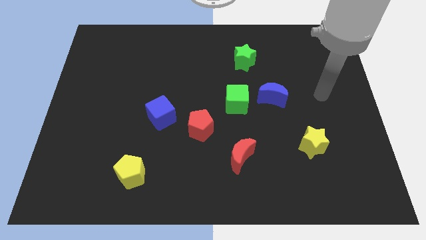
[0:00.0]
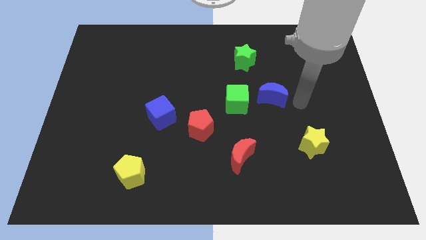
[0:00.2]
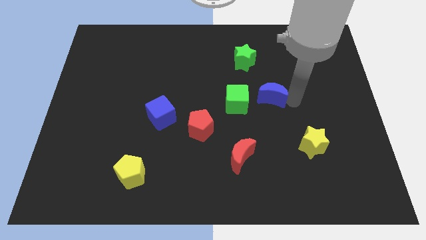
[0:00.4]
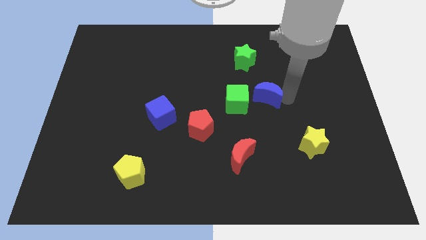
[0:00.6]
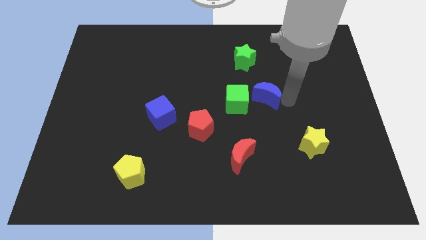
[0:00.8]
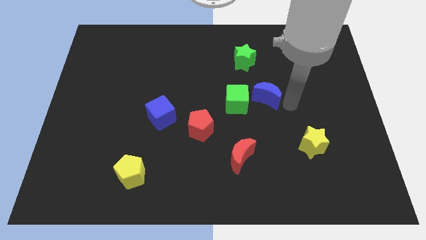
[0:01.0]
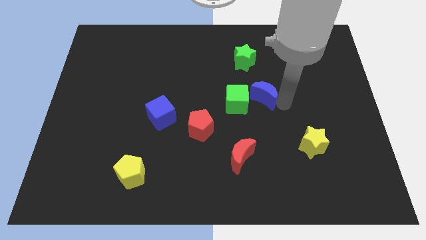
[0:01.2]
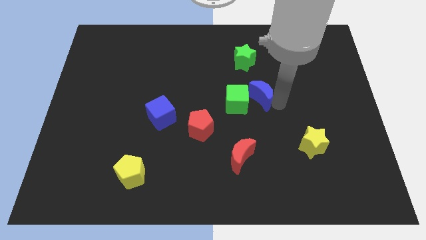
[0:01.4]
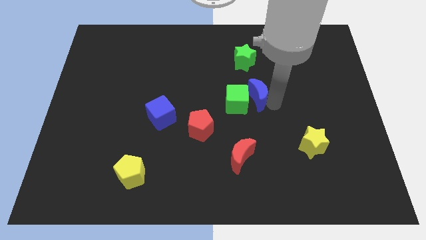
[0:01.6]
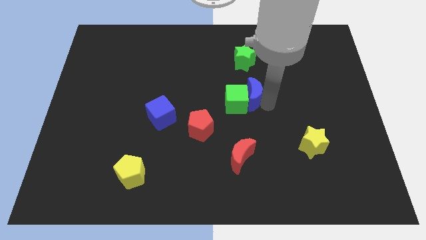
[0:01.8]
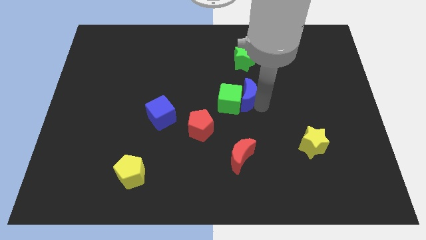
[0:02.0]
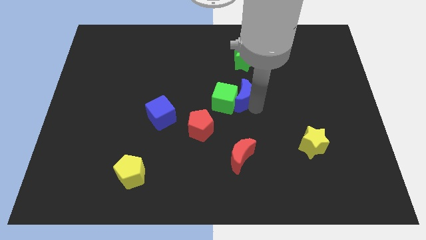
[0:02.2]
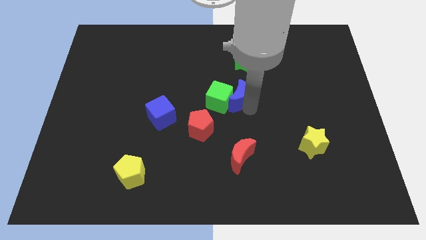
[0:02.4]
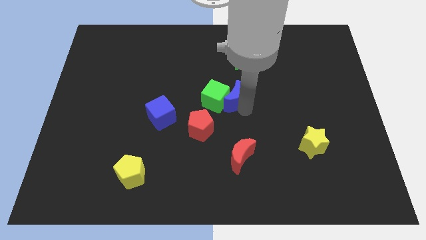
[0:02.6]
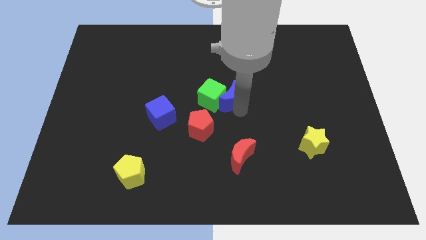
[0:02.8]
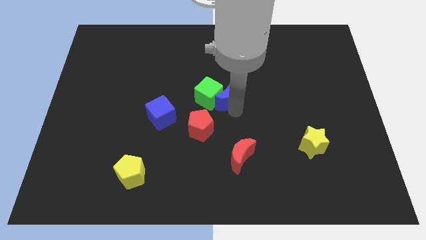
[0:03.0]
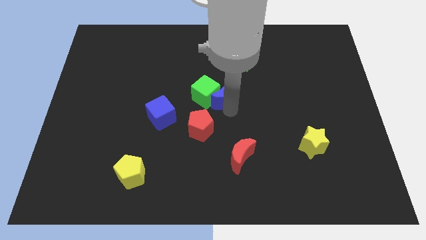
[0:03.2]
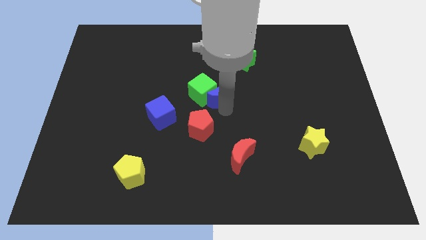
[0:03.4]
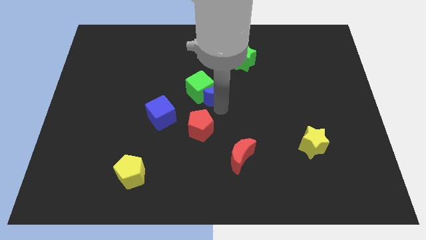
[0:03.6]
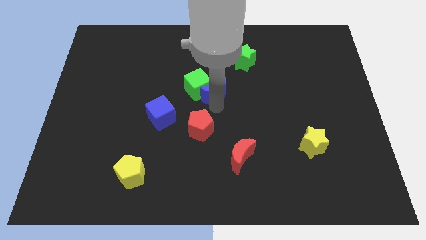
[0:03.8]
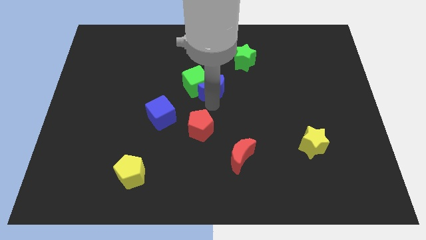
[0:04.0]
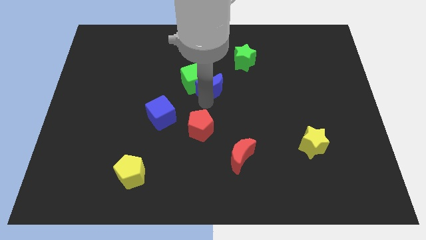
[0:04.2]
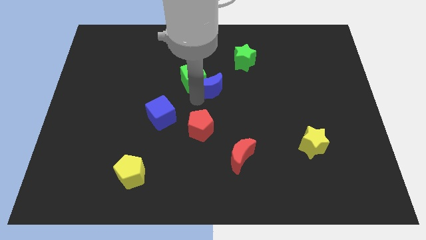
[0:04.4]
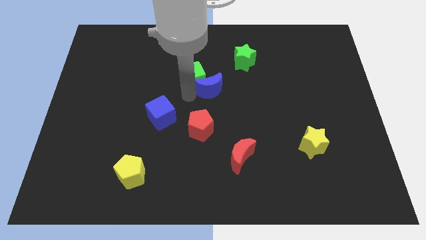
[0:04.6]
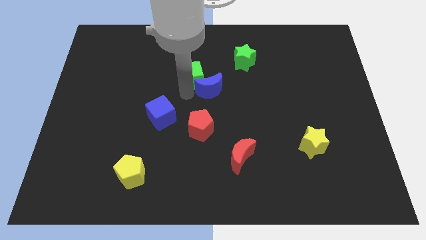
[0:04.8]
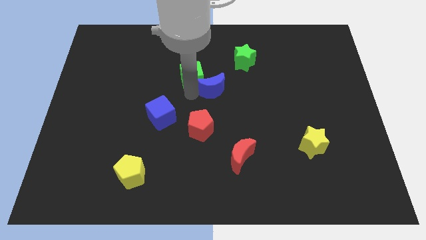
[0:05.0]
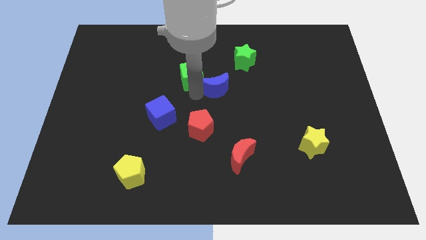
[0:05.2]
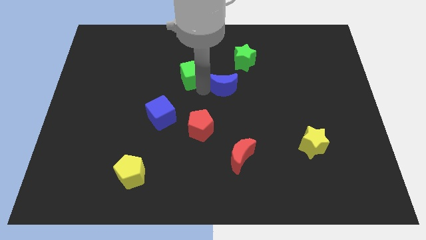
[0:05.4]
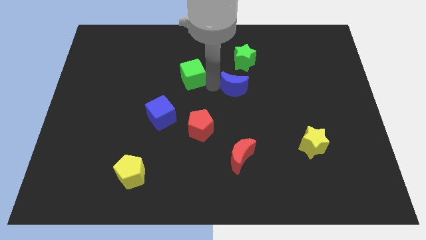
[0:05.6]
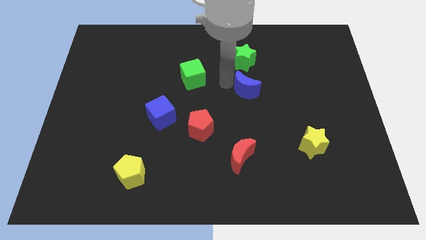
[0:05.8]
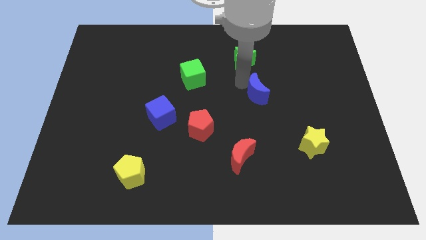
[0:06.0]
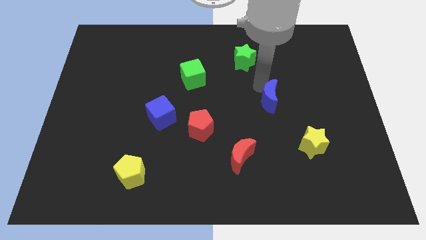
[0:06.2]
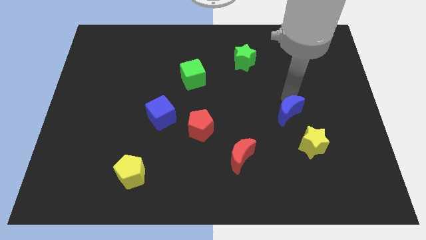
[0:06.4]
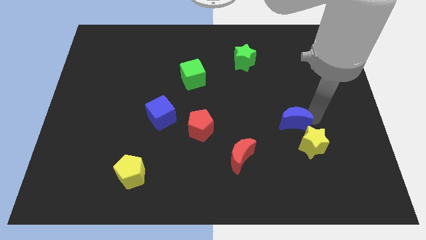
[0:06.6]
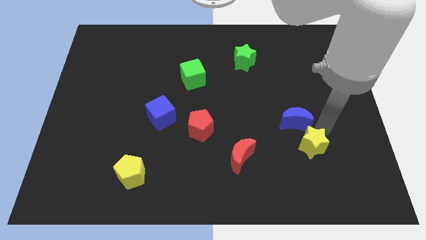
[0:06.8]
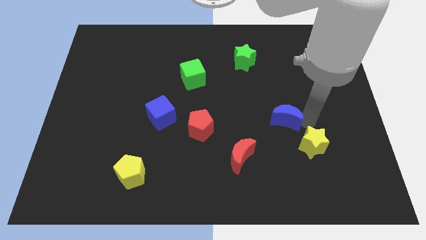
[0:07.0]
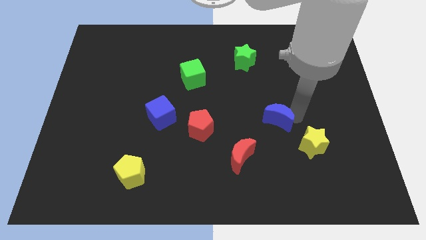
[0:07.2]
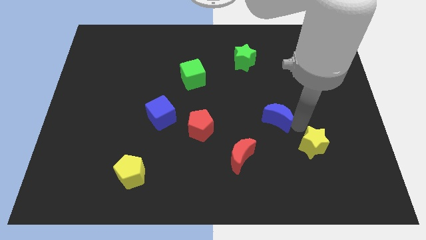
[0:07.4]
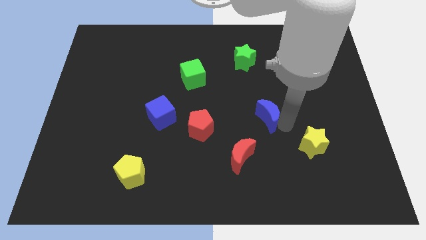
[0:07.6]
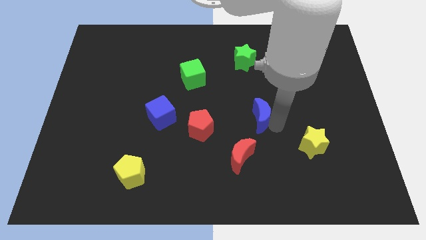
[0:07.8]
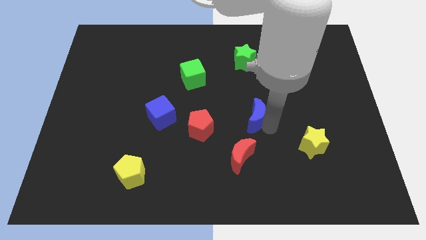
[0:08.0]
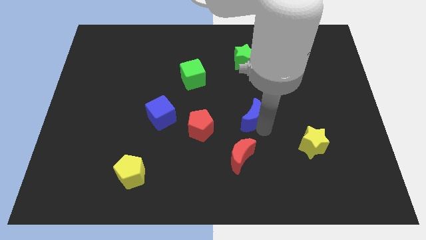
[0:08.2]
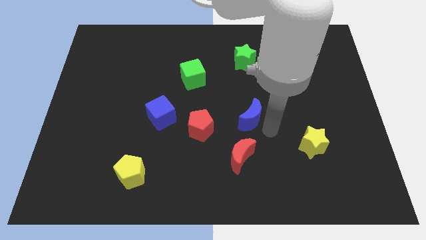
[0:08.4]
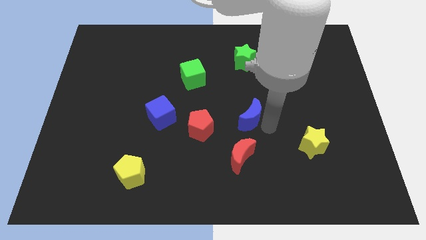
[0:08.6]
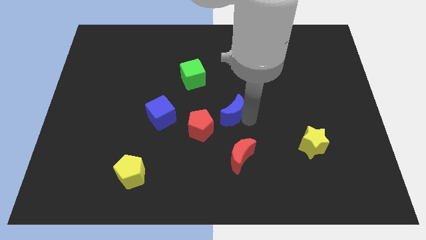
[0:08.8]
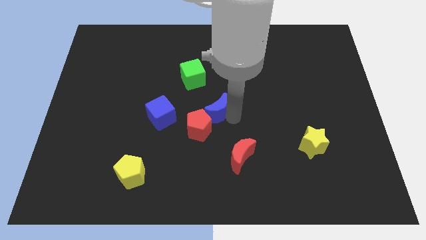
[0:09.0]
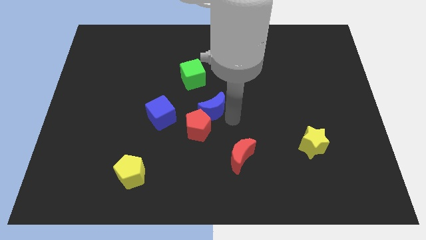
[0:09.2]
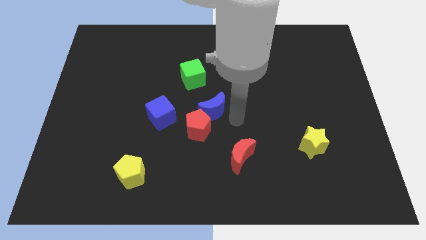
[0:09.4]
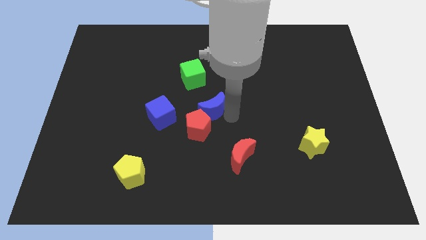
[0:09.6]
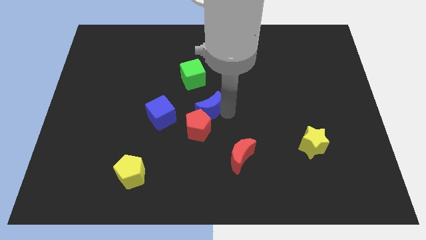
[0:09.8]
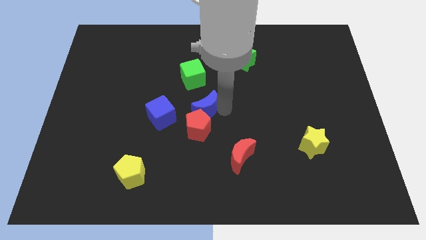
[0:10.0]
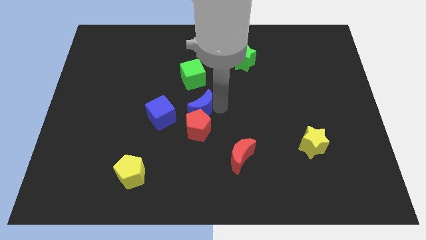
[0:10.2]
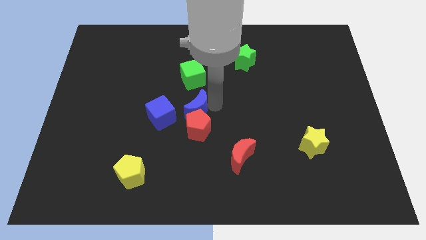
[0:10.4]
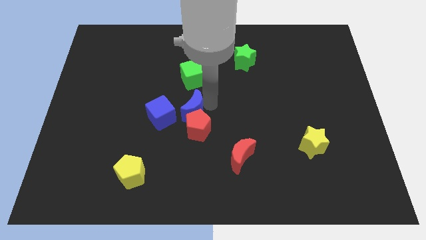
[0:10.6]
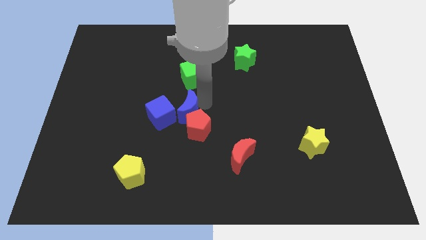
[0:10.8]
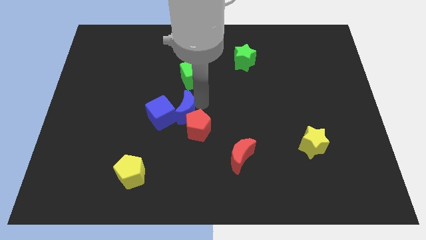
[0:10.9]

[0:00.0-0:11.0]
move the blue moon next to the blue cube

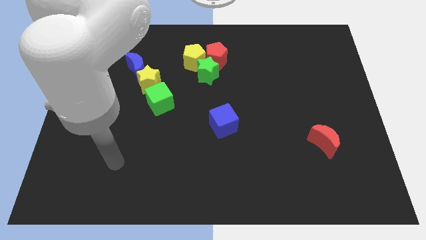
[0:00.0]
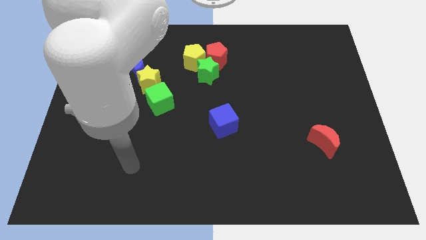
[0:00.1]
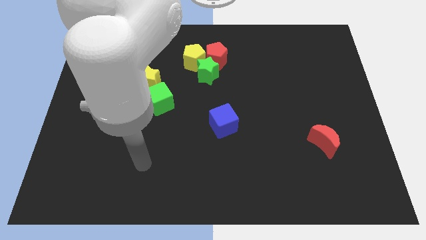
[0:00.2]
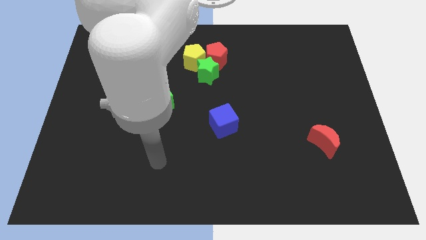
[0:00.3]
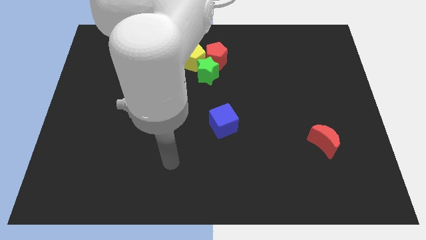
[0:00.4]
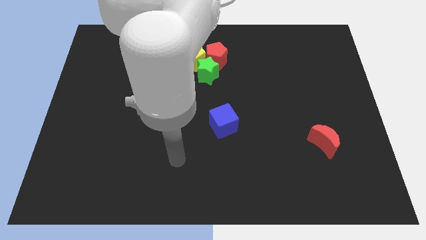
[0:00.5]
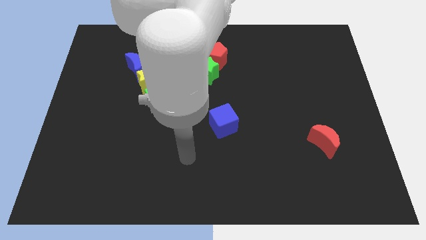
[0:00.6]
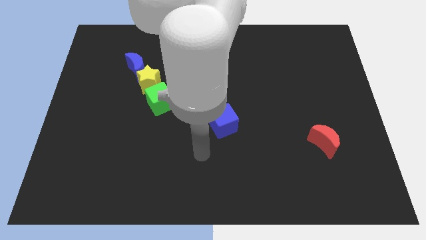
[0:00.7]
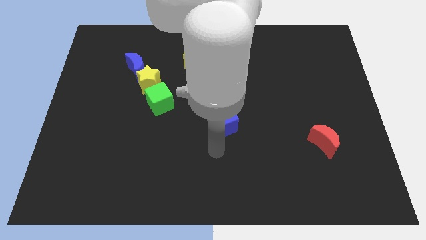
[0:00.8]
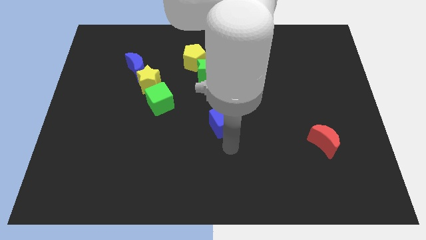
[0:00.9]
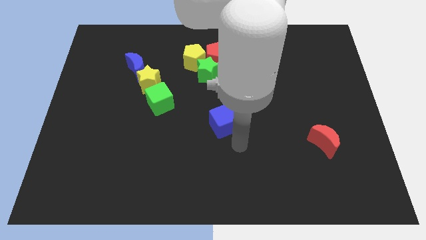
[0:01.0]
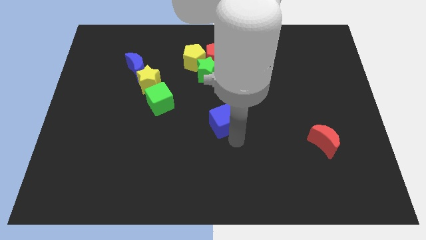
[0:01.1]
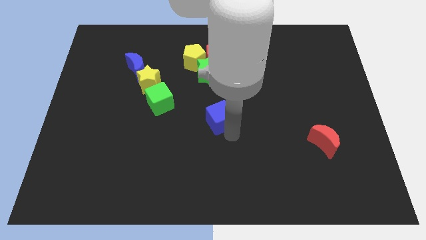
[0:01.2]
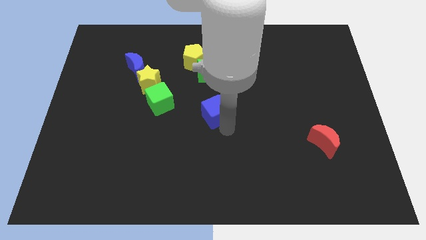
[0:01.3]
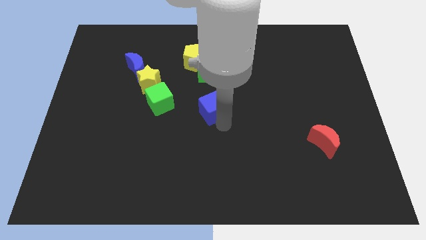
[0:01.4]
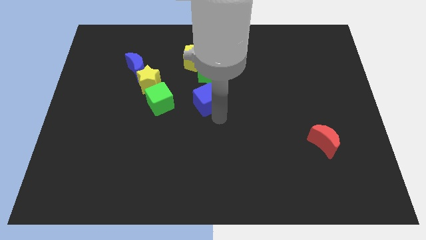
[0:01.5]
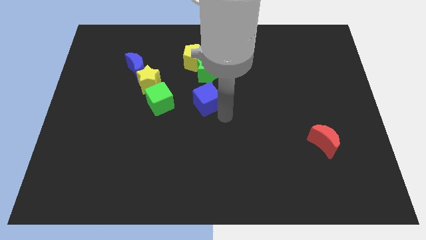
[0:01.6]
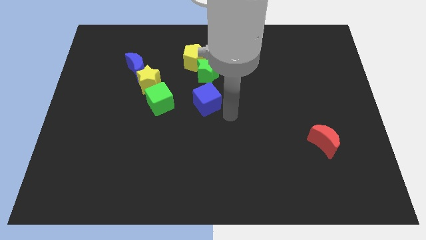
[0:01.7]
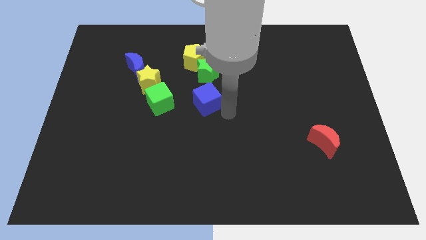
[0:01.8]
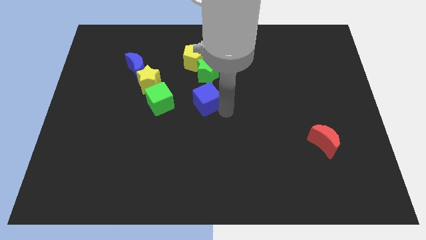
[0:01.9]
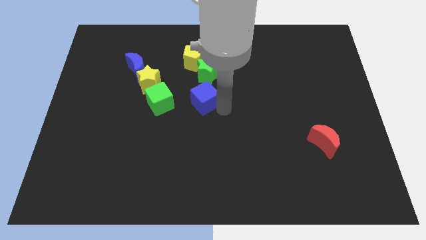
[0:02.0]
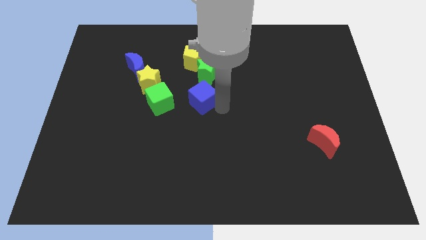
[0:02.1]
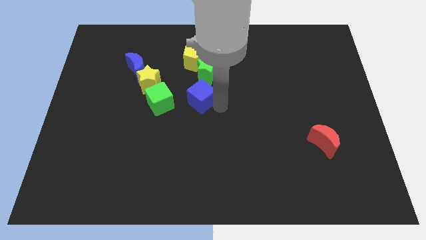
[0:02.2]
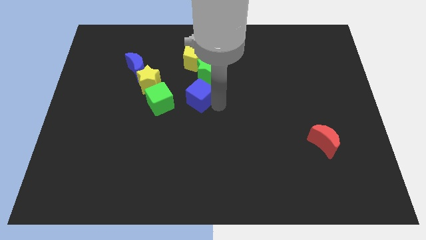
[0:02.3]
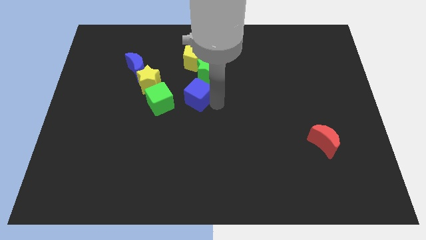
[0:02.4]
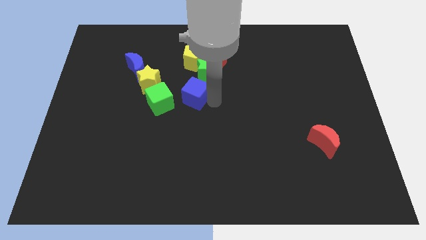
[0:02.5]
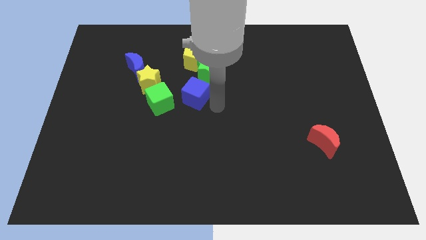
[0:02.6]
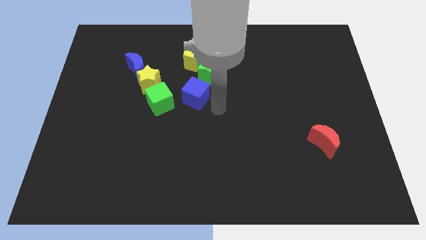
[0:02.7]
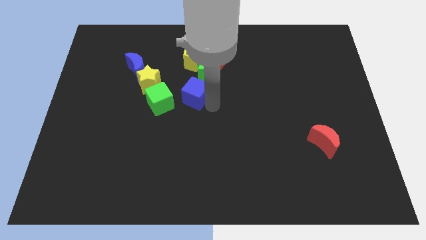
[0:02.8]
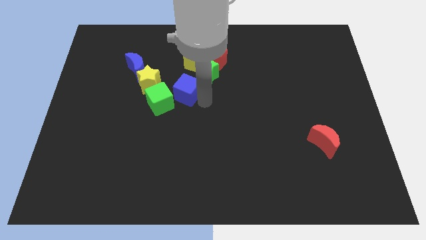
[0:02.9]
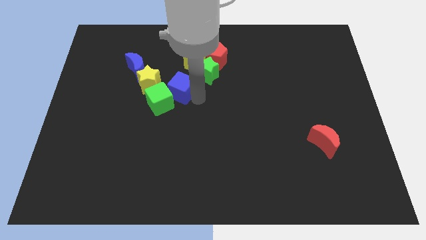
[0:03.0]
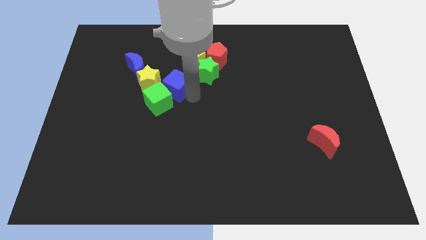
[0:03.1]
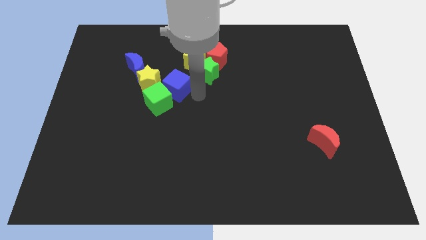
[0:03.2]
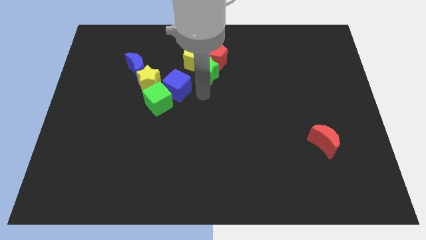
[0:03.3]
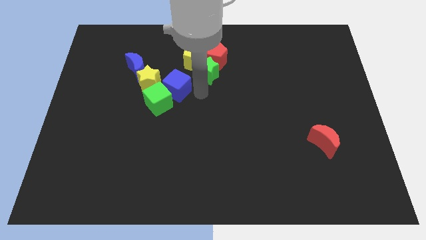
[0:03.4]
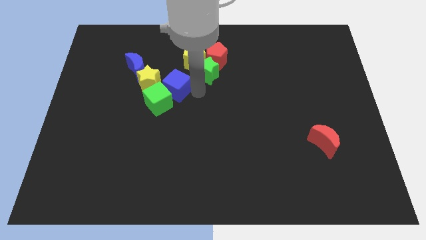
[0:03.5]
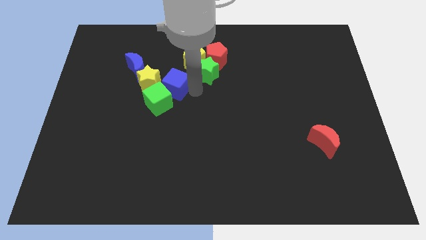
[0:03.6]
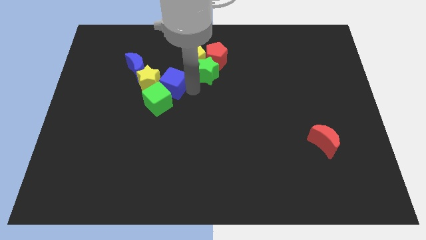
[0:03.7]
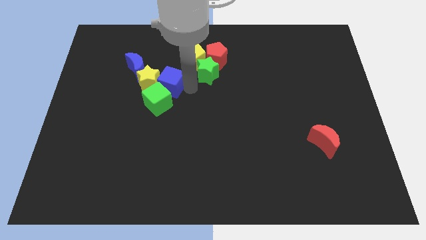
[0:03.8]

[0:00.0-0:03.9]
slide the blue cube next to the yellow star
